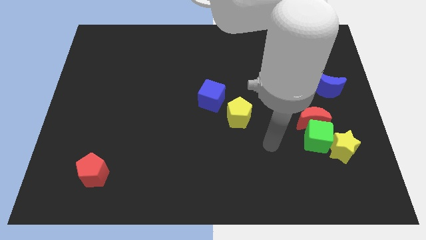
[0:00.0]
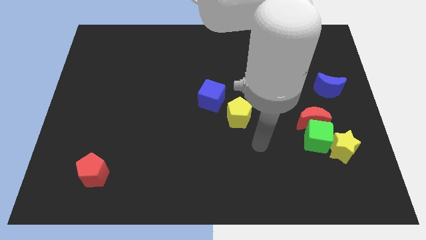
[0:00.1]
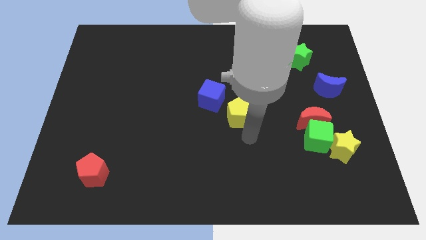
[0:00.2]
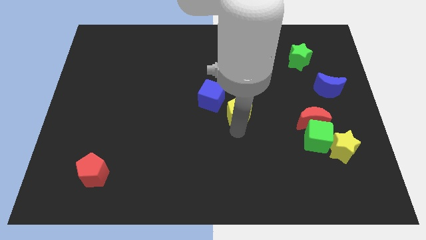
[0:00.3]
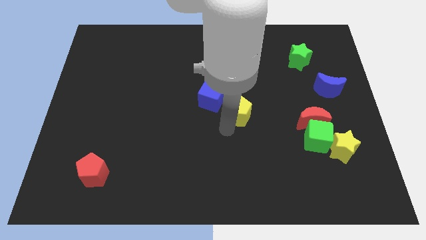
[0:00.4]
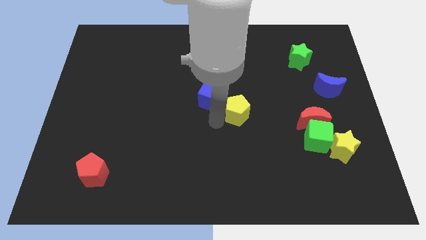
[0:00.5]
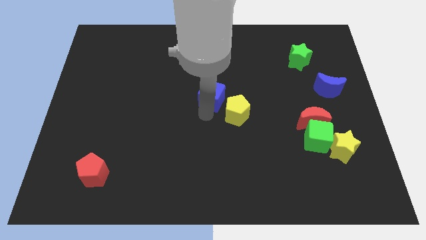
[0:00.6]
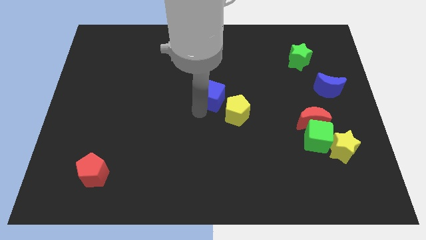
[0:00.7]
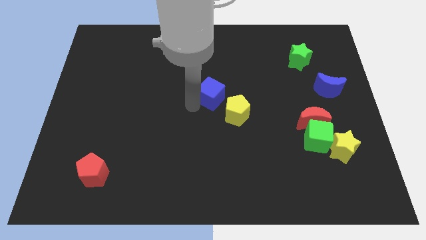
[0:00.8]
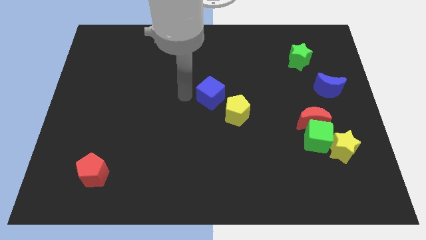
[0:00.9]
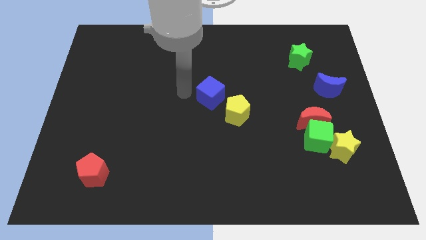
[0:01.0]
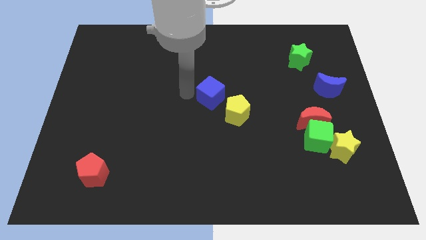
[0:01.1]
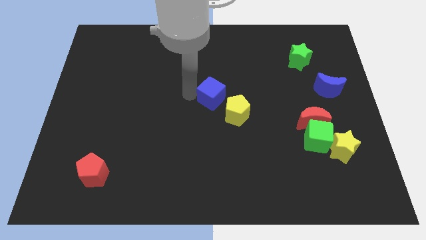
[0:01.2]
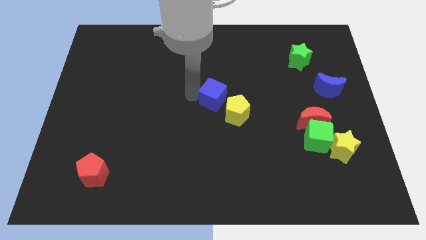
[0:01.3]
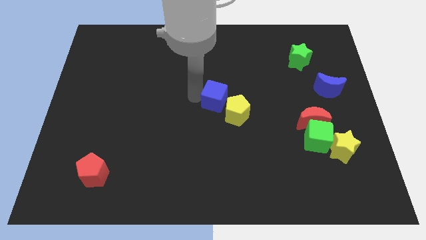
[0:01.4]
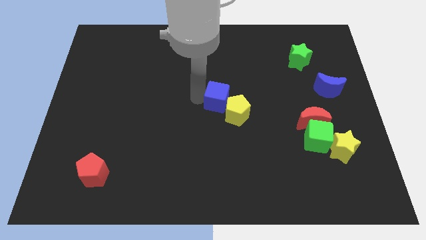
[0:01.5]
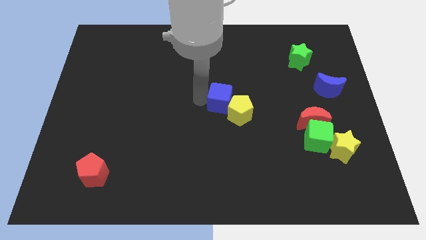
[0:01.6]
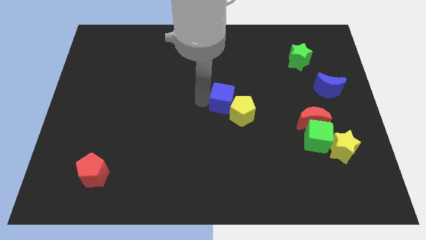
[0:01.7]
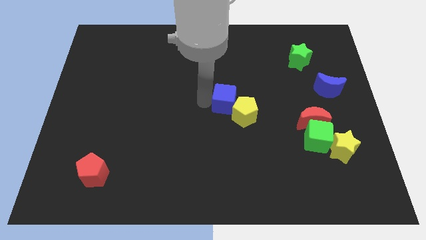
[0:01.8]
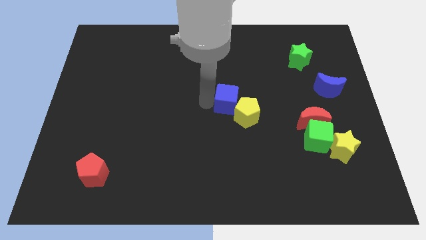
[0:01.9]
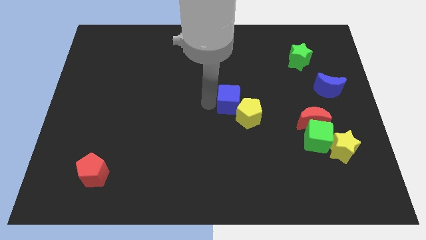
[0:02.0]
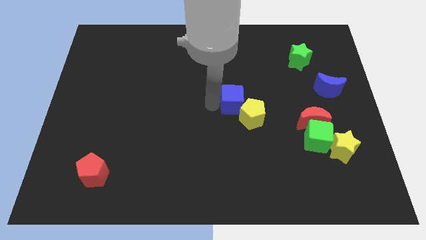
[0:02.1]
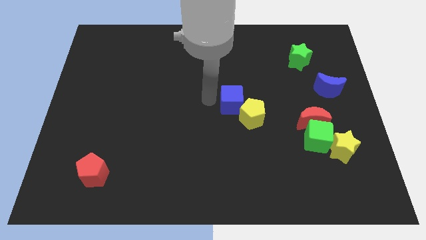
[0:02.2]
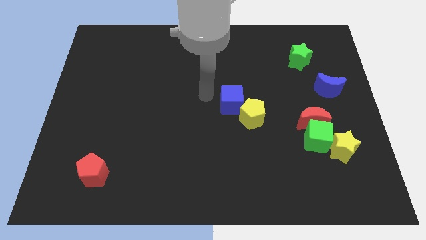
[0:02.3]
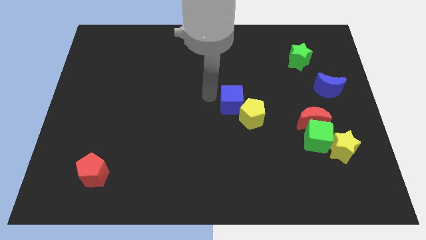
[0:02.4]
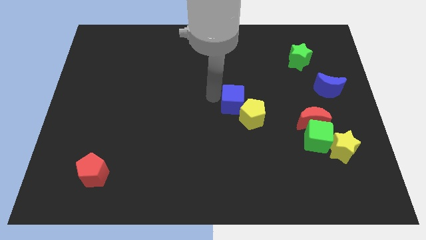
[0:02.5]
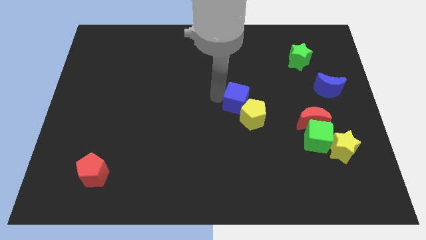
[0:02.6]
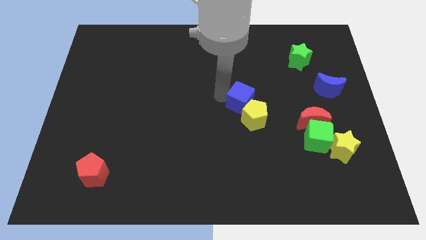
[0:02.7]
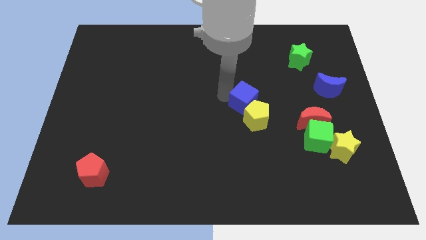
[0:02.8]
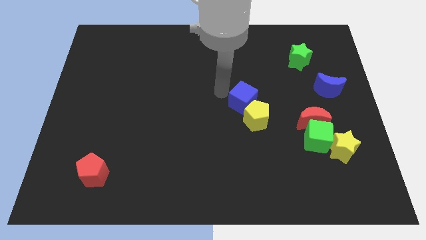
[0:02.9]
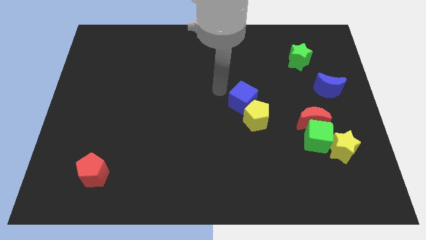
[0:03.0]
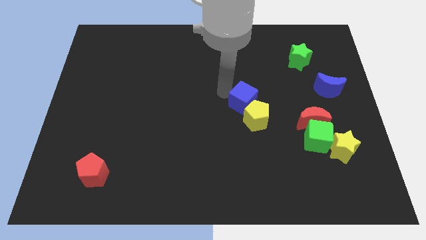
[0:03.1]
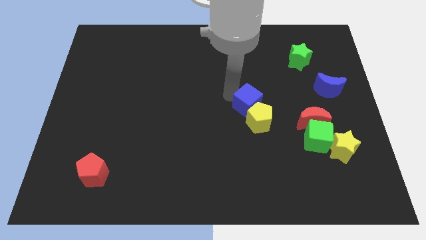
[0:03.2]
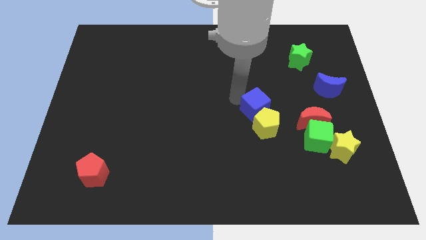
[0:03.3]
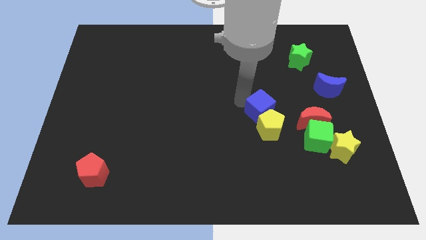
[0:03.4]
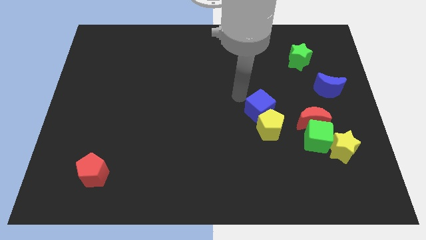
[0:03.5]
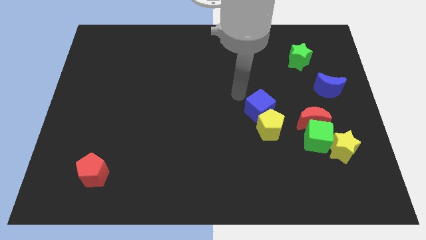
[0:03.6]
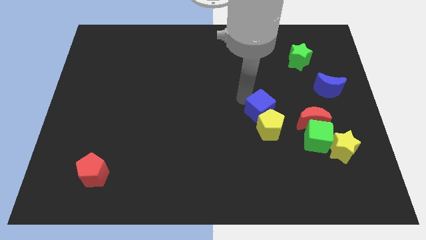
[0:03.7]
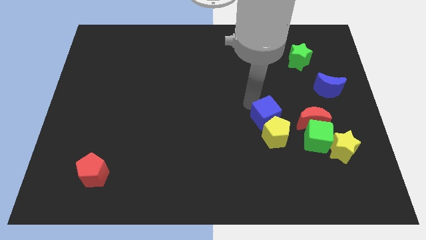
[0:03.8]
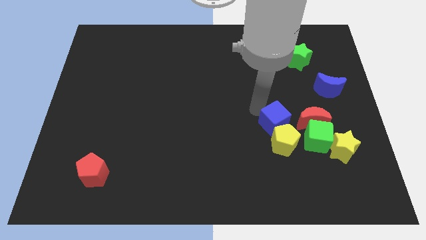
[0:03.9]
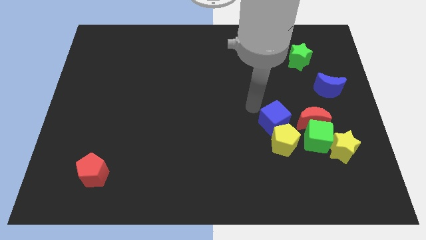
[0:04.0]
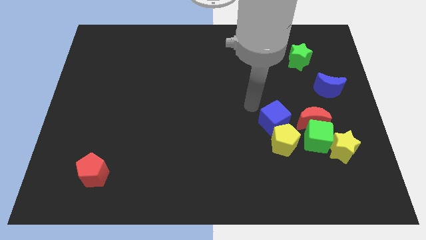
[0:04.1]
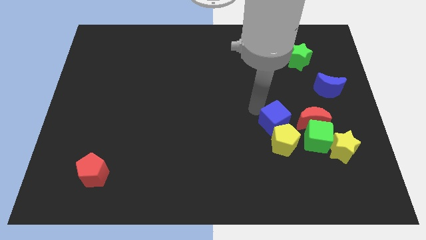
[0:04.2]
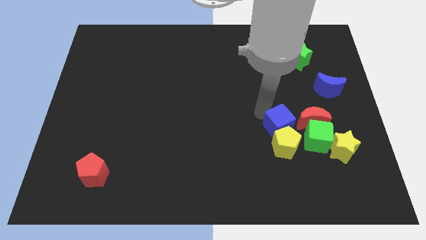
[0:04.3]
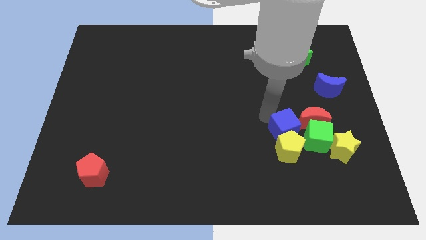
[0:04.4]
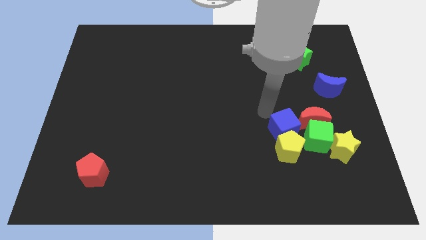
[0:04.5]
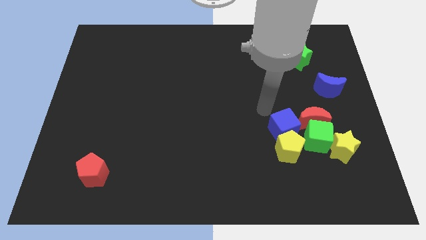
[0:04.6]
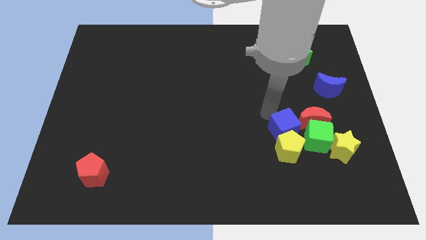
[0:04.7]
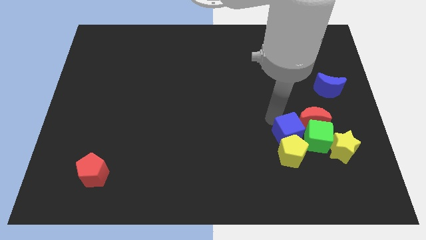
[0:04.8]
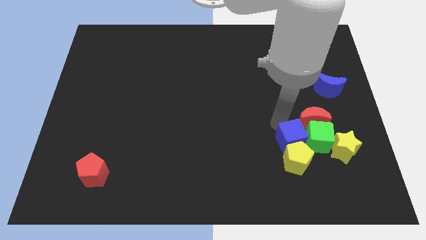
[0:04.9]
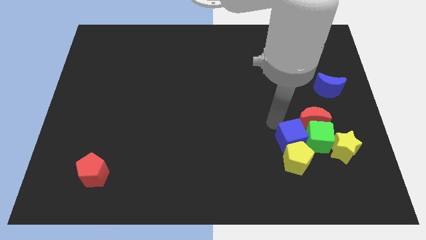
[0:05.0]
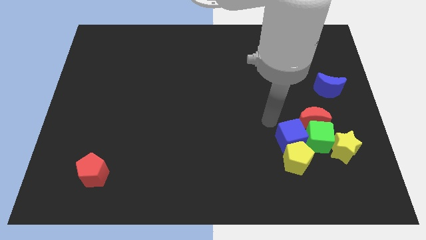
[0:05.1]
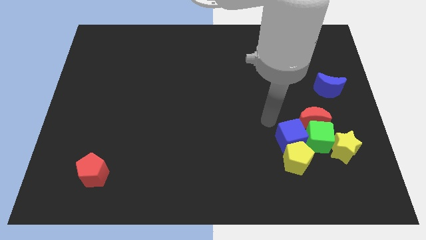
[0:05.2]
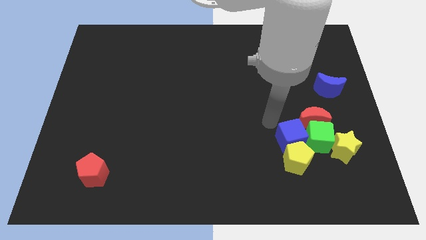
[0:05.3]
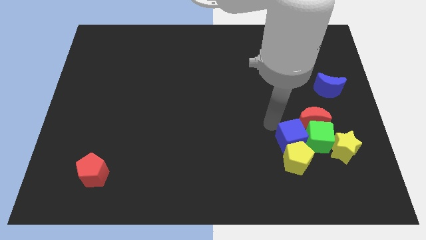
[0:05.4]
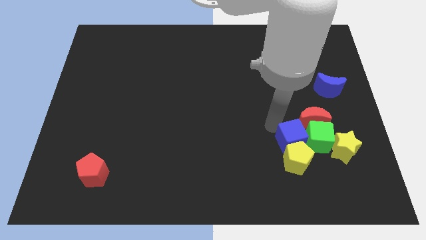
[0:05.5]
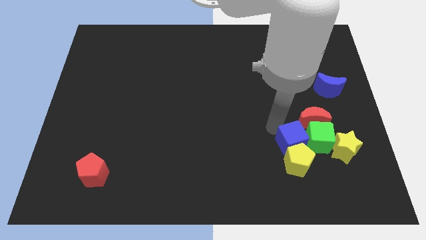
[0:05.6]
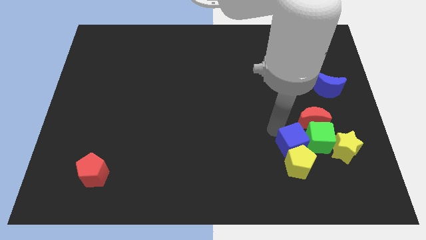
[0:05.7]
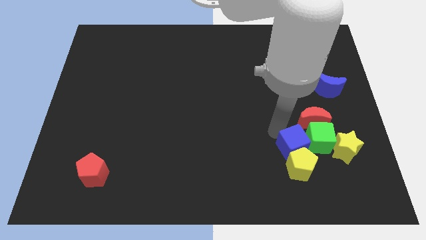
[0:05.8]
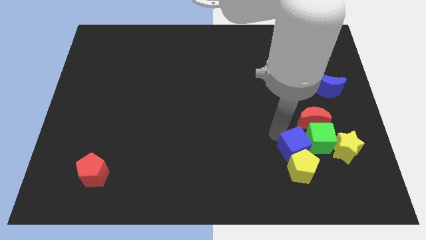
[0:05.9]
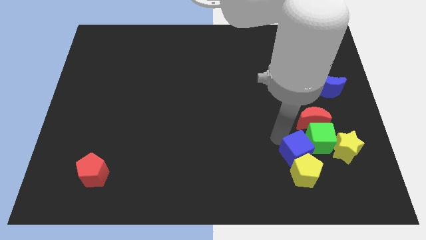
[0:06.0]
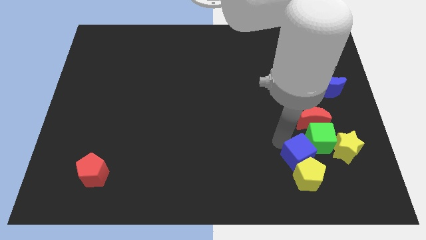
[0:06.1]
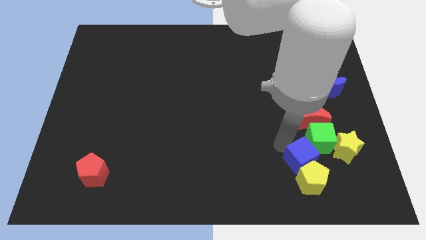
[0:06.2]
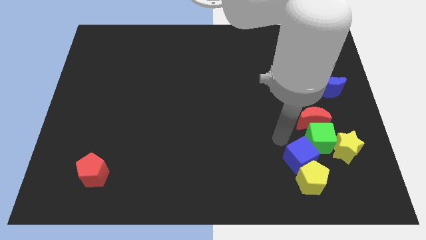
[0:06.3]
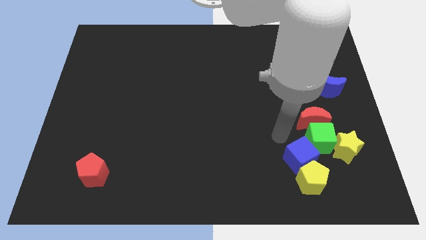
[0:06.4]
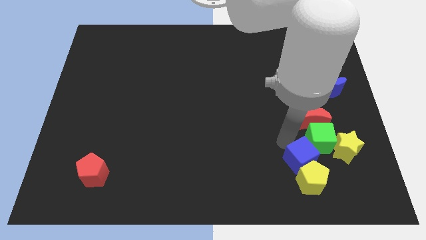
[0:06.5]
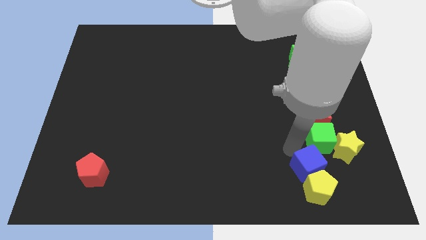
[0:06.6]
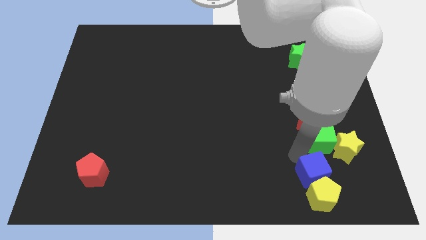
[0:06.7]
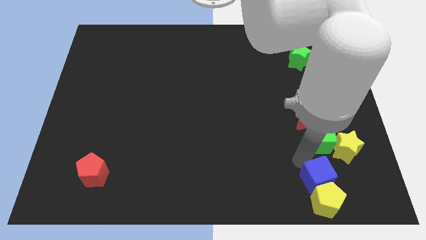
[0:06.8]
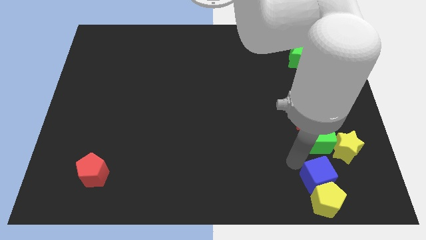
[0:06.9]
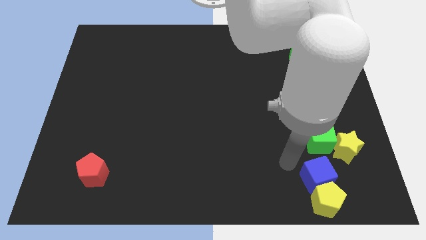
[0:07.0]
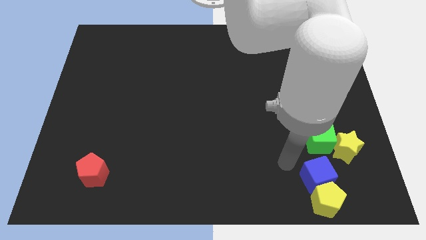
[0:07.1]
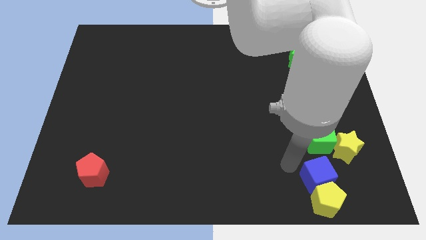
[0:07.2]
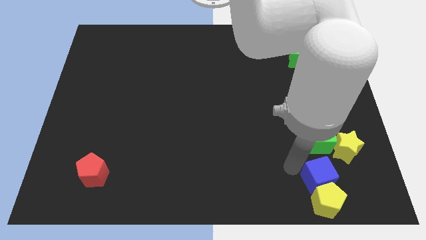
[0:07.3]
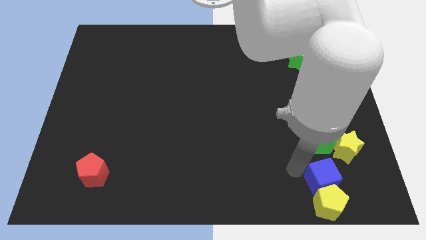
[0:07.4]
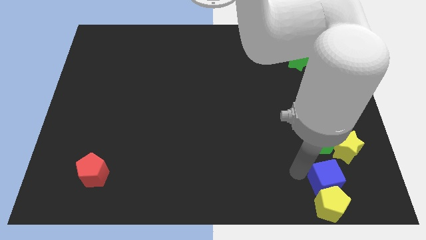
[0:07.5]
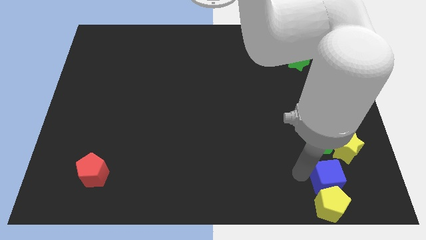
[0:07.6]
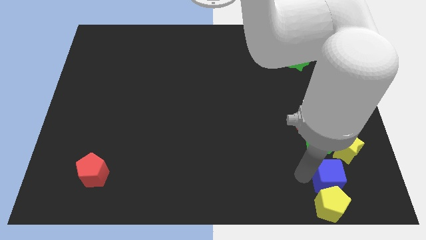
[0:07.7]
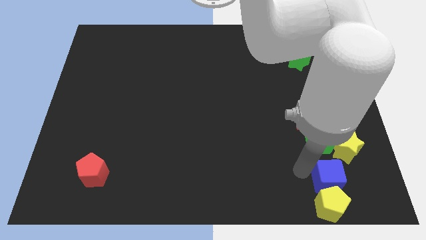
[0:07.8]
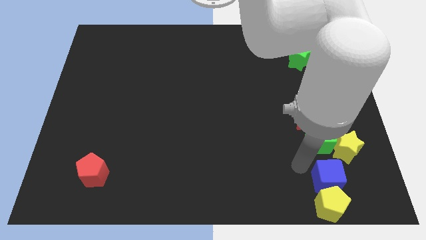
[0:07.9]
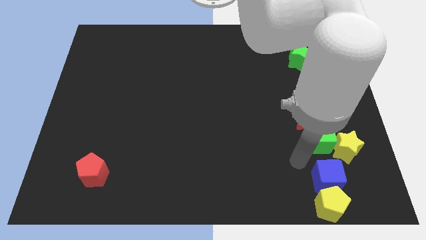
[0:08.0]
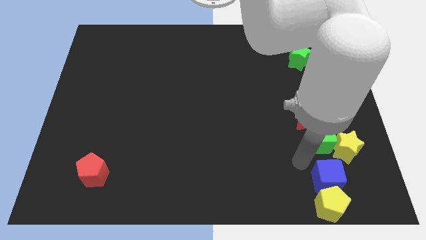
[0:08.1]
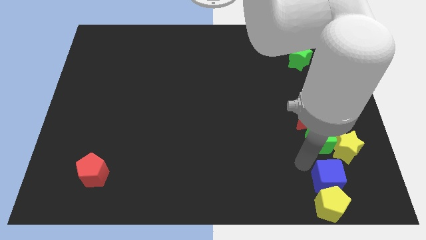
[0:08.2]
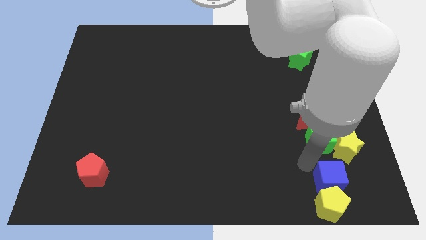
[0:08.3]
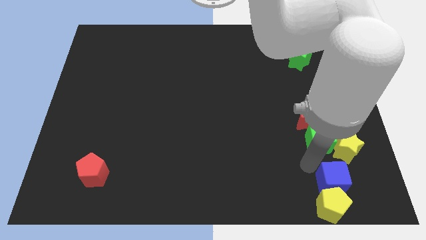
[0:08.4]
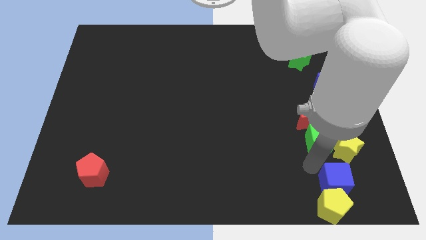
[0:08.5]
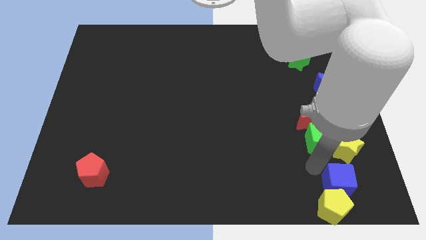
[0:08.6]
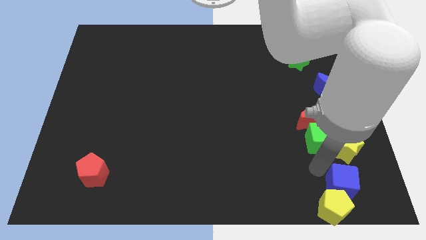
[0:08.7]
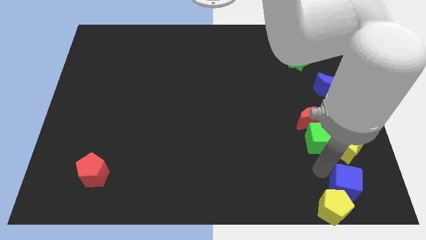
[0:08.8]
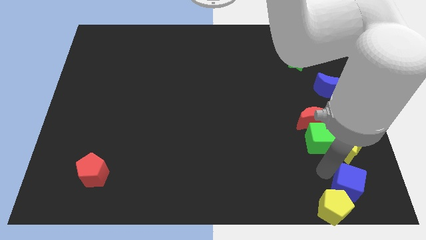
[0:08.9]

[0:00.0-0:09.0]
slide the blue cube to the bottom right
